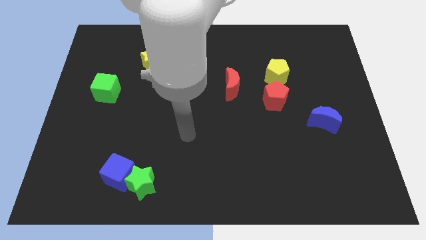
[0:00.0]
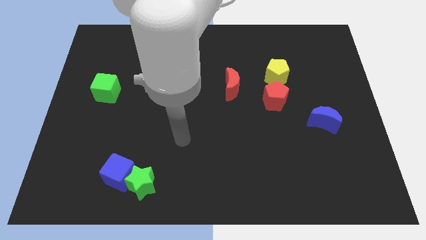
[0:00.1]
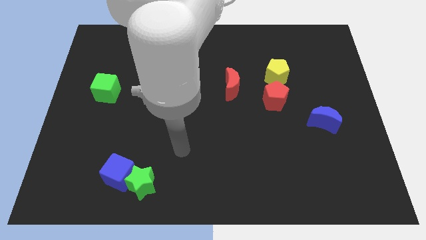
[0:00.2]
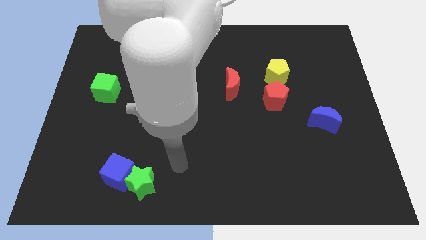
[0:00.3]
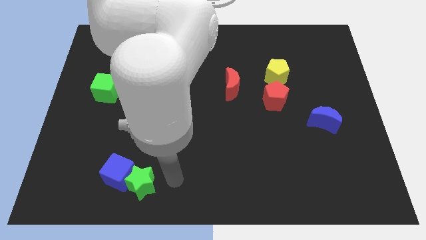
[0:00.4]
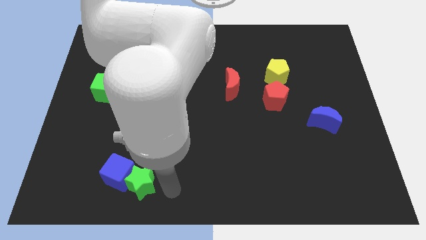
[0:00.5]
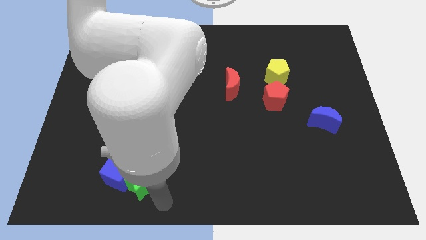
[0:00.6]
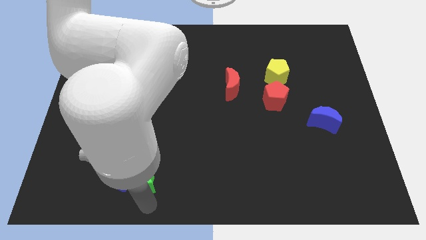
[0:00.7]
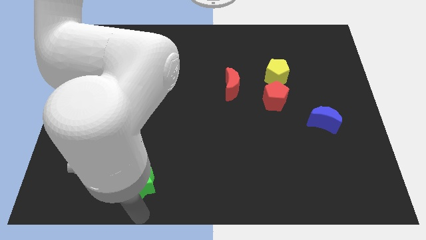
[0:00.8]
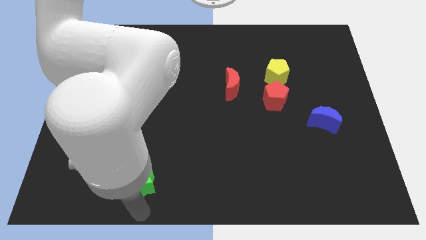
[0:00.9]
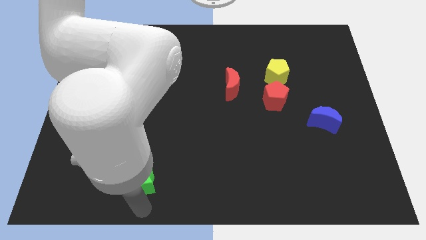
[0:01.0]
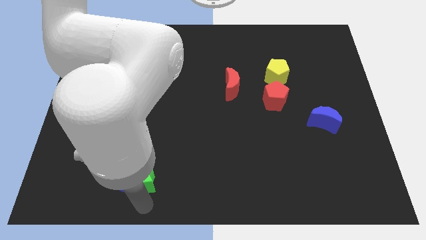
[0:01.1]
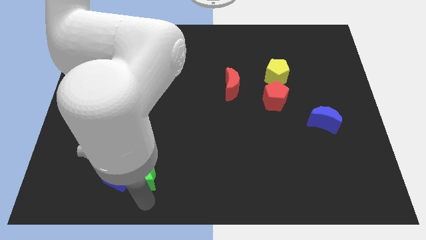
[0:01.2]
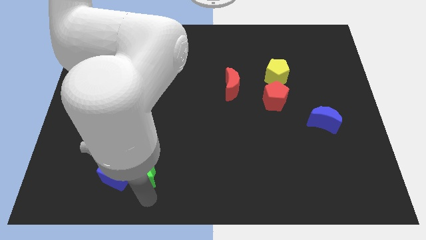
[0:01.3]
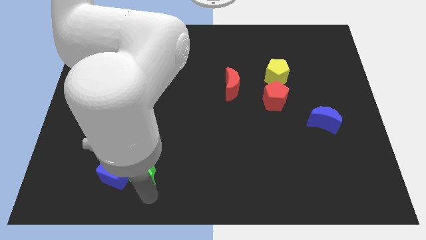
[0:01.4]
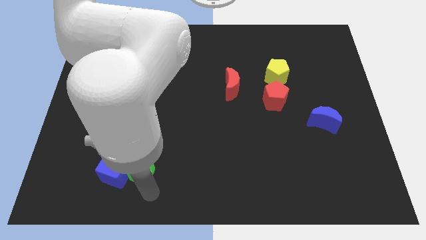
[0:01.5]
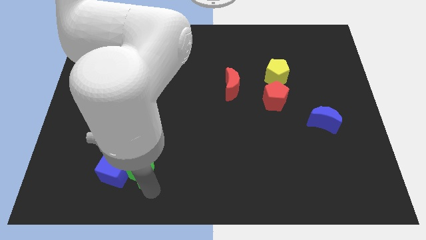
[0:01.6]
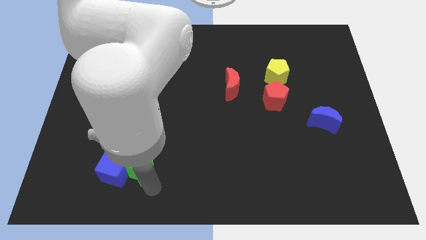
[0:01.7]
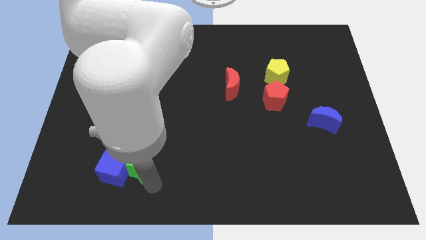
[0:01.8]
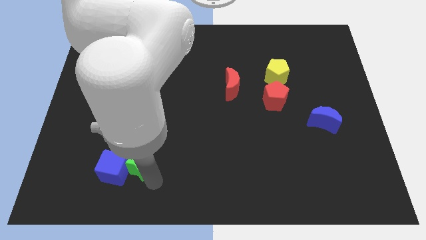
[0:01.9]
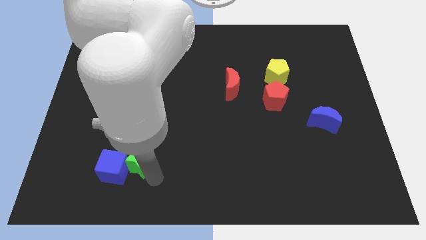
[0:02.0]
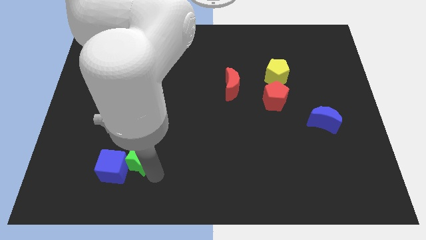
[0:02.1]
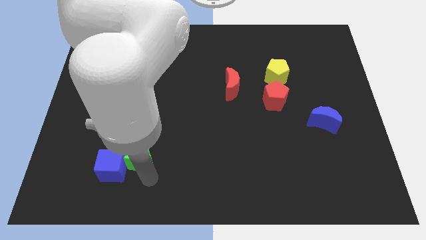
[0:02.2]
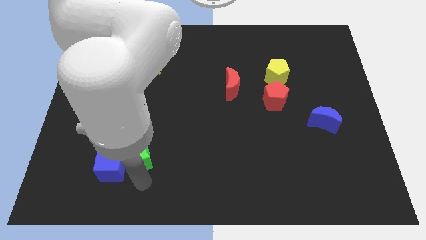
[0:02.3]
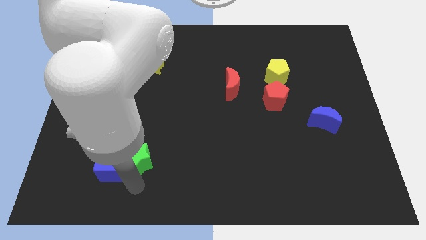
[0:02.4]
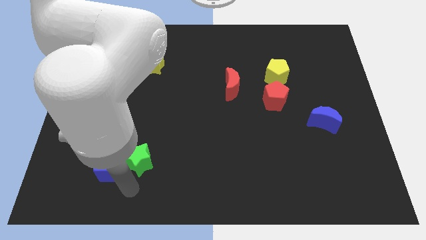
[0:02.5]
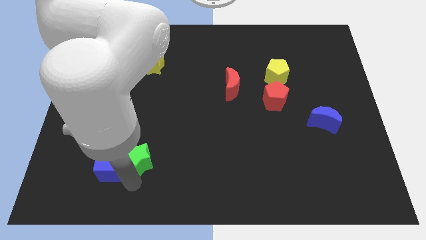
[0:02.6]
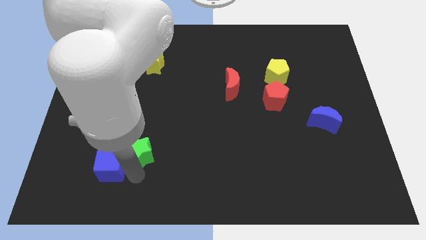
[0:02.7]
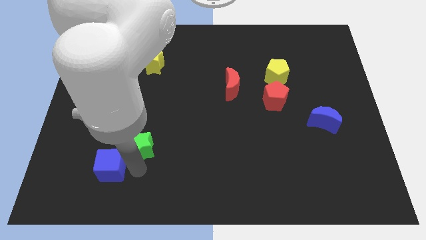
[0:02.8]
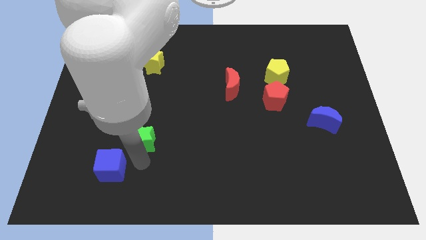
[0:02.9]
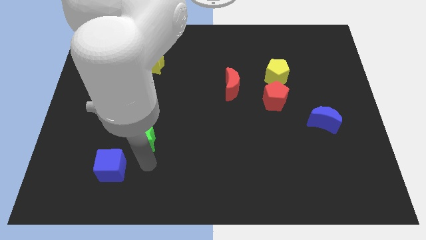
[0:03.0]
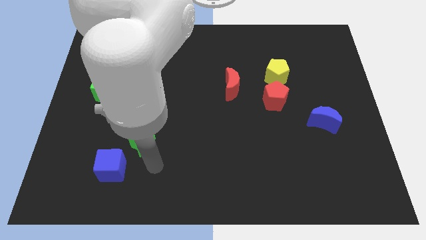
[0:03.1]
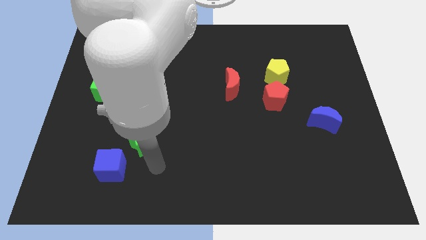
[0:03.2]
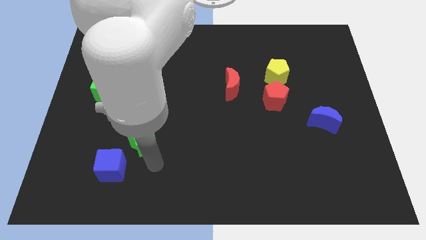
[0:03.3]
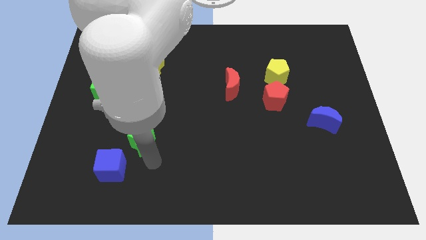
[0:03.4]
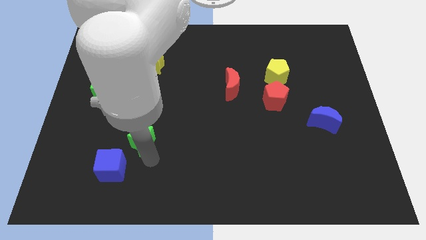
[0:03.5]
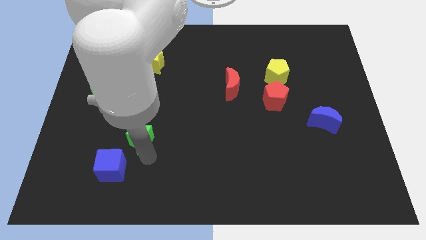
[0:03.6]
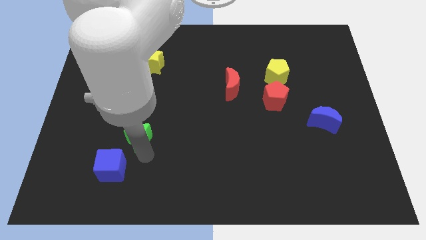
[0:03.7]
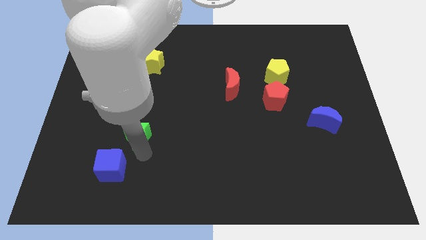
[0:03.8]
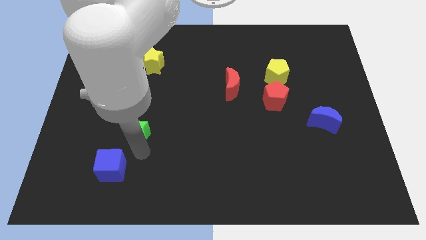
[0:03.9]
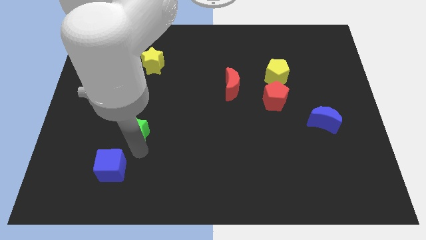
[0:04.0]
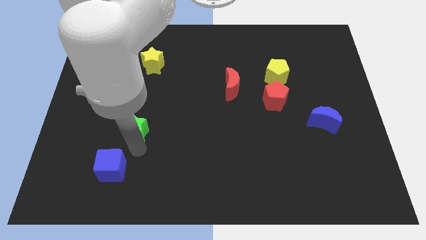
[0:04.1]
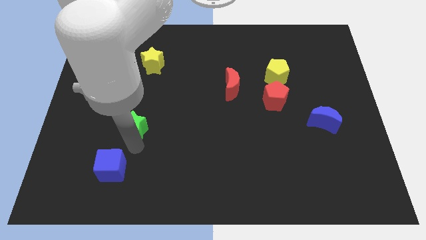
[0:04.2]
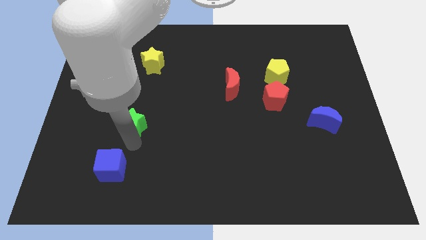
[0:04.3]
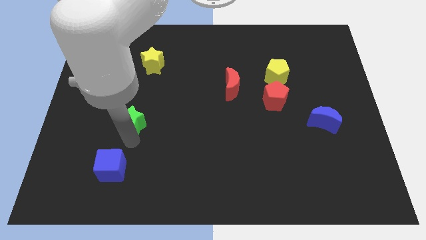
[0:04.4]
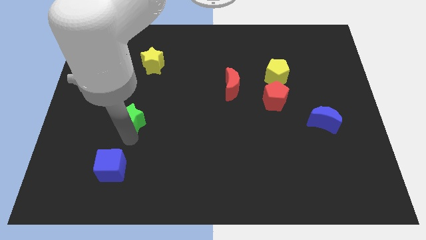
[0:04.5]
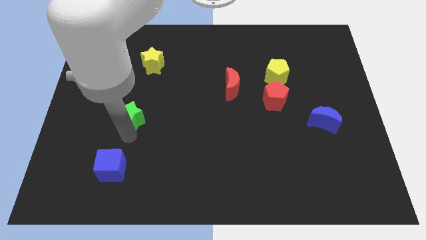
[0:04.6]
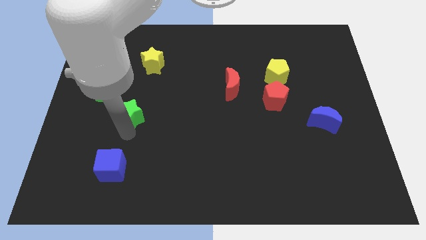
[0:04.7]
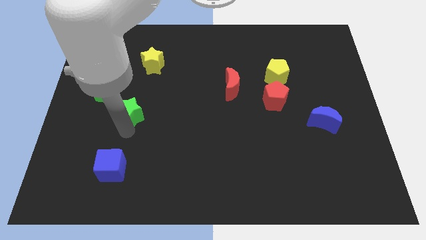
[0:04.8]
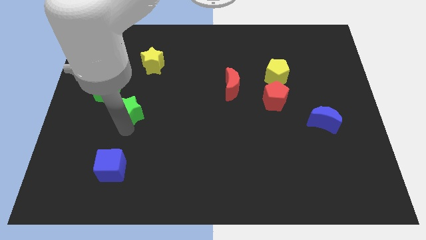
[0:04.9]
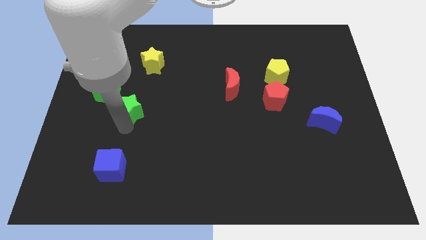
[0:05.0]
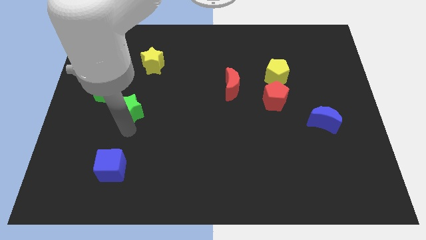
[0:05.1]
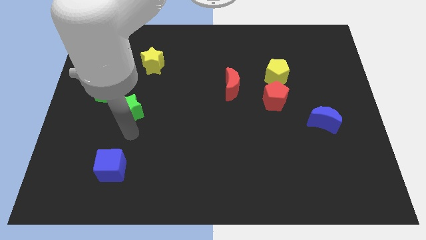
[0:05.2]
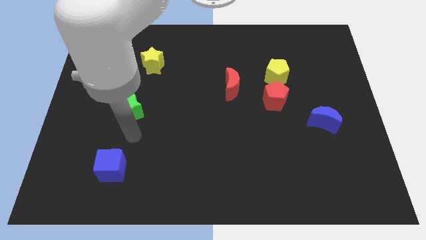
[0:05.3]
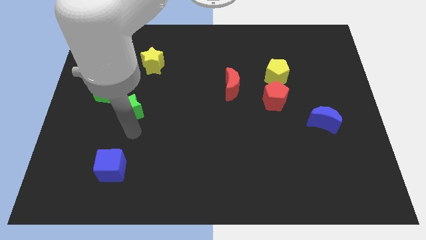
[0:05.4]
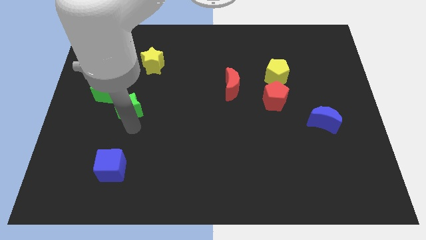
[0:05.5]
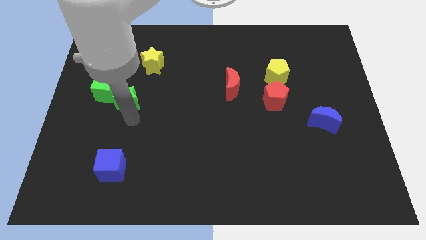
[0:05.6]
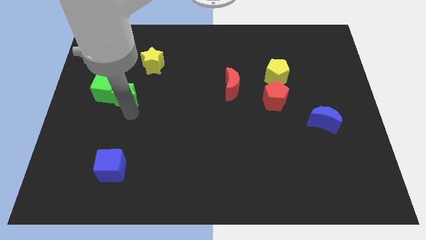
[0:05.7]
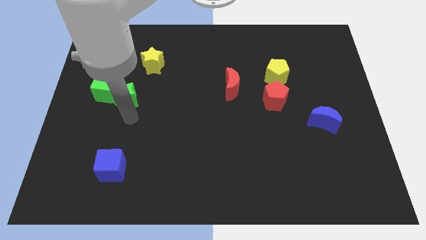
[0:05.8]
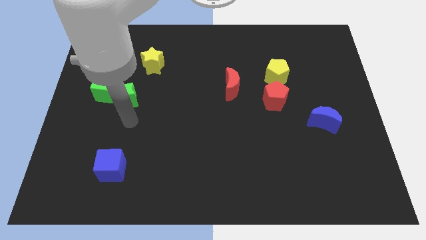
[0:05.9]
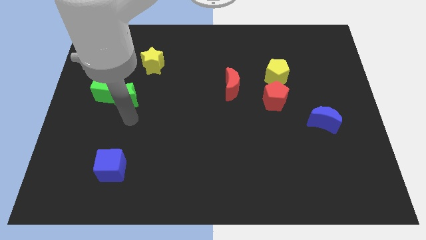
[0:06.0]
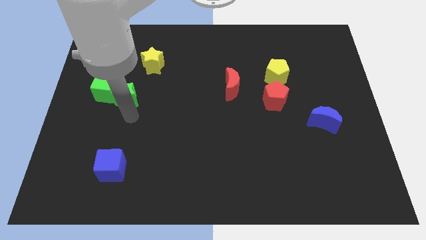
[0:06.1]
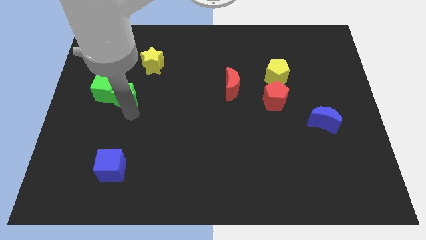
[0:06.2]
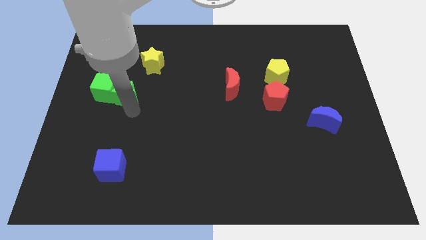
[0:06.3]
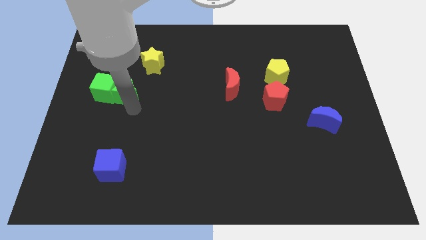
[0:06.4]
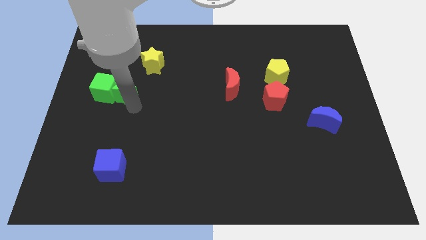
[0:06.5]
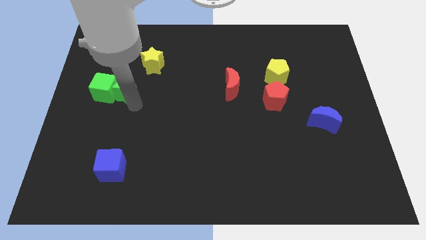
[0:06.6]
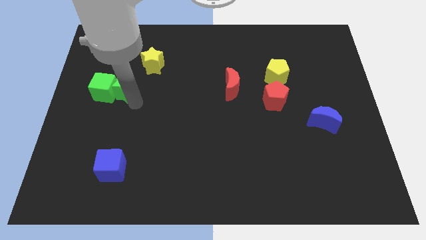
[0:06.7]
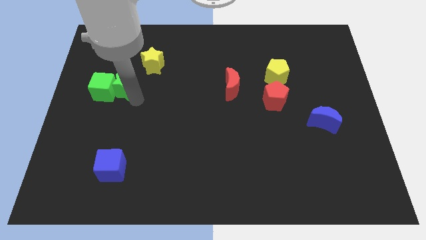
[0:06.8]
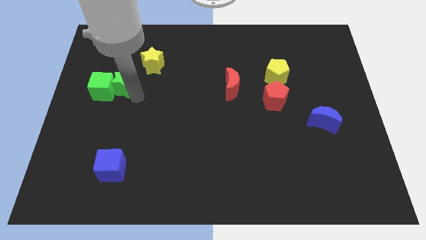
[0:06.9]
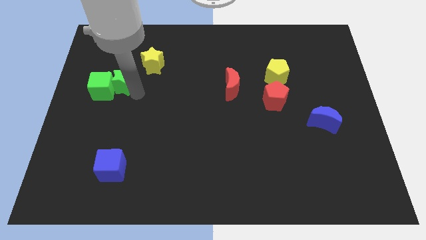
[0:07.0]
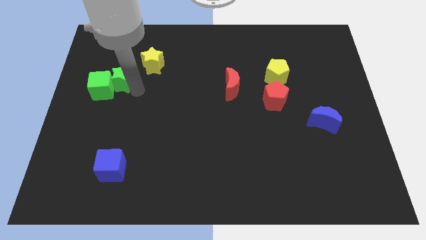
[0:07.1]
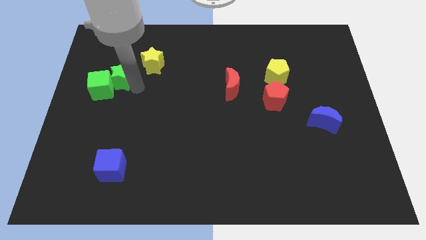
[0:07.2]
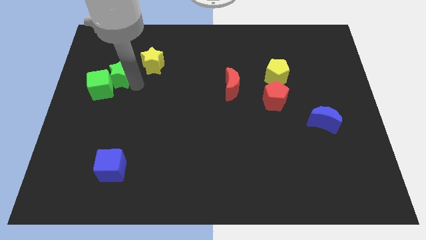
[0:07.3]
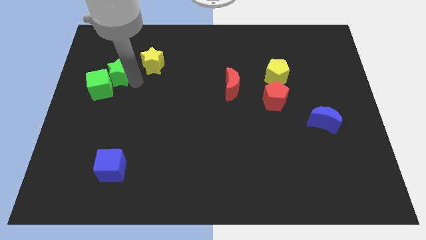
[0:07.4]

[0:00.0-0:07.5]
slide the green star to the top side of the green cube
